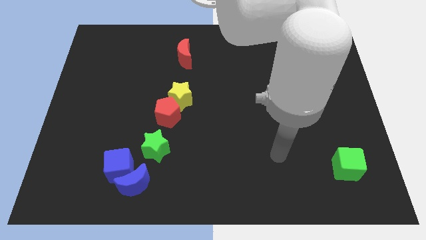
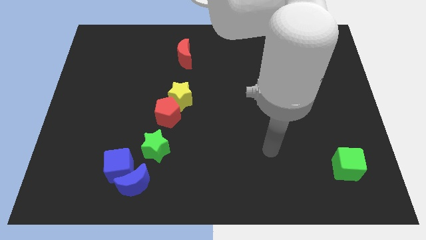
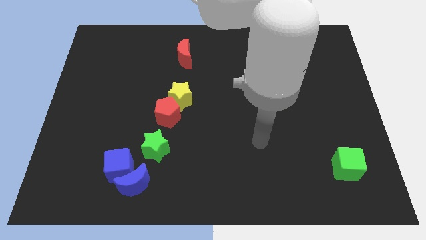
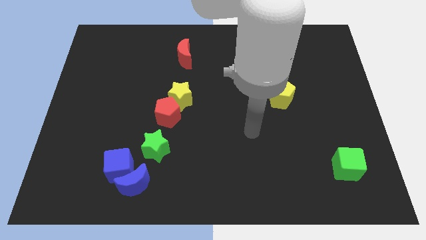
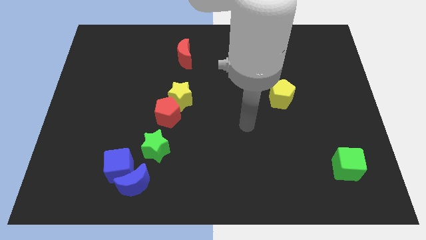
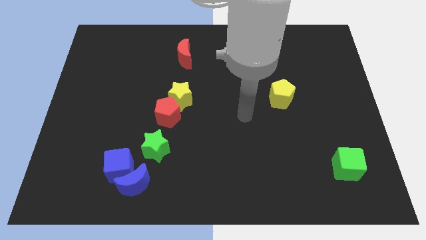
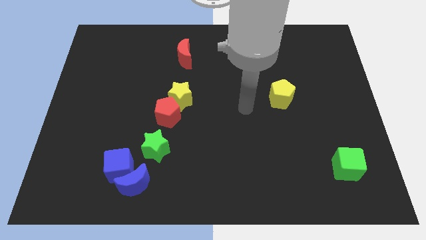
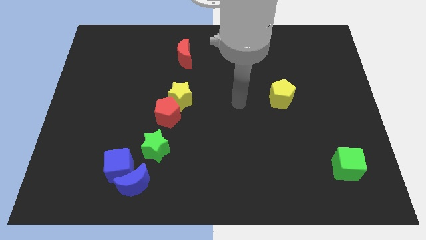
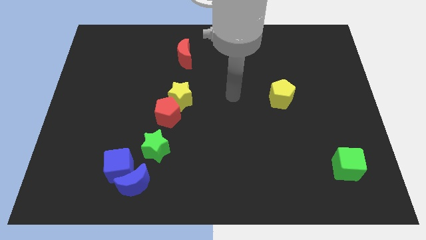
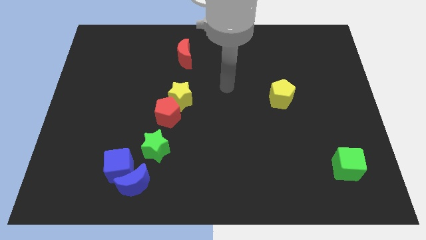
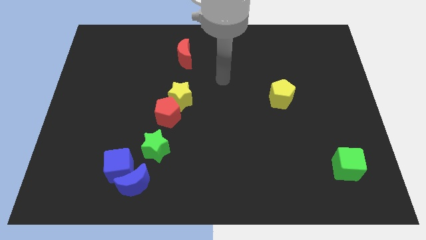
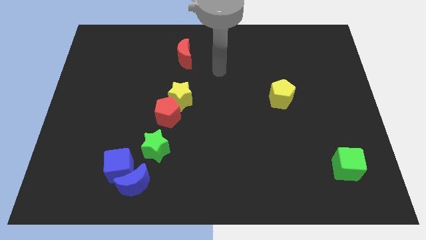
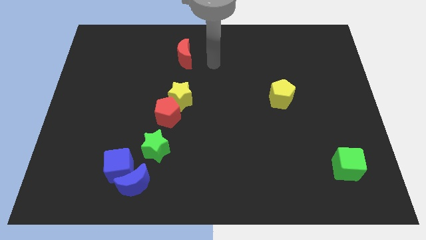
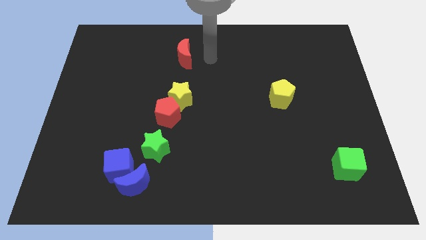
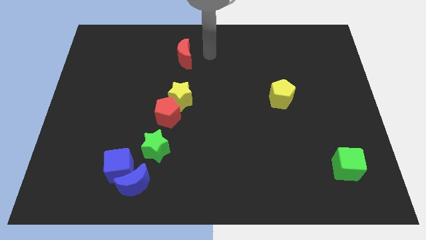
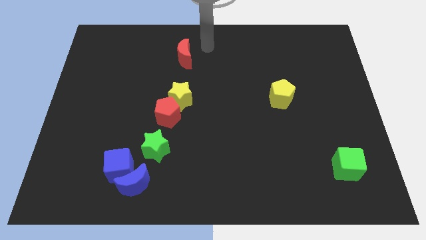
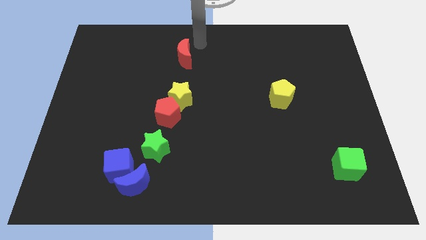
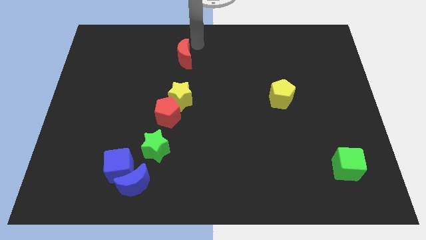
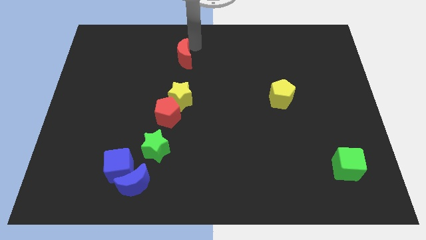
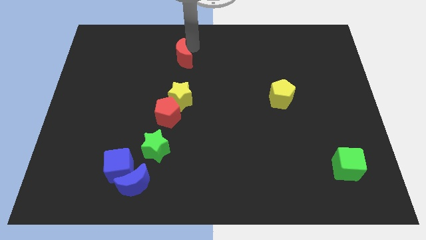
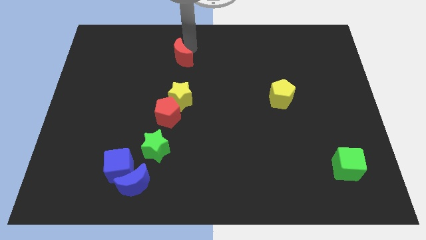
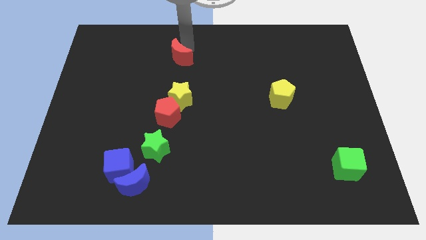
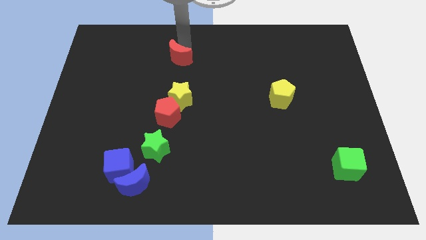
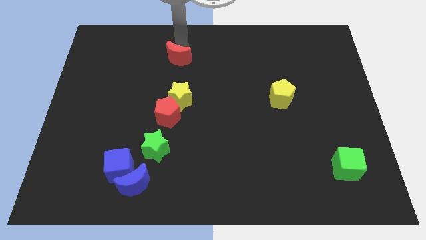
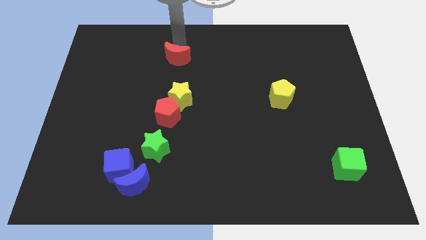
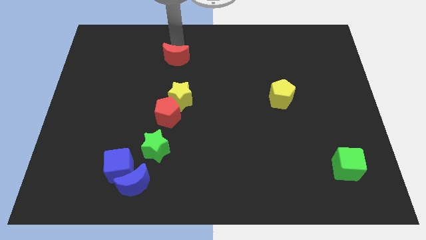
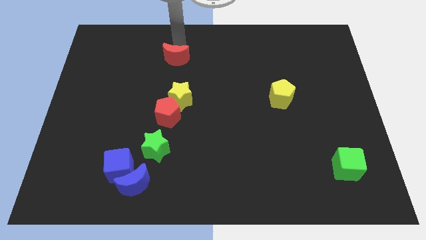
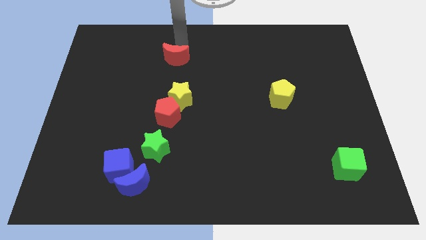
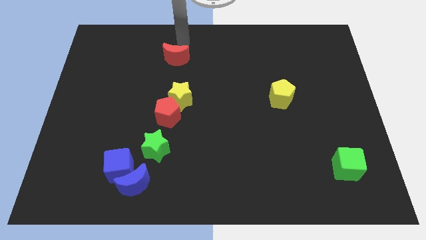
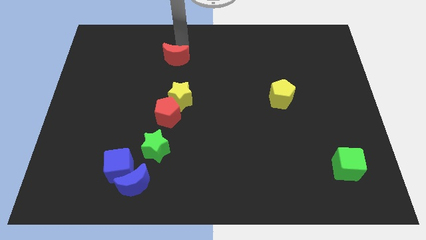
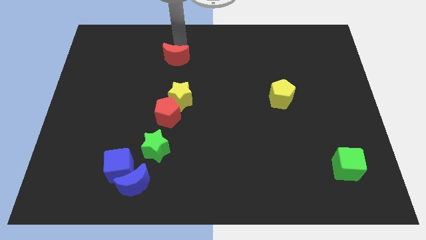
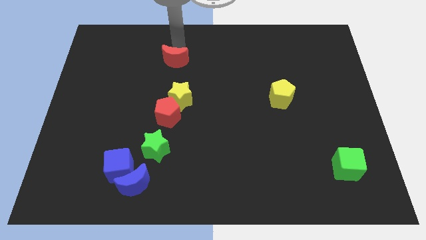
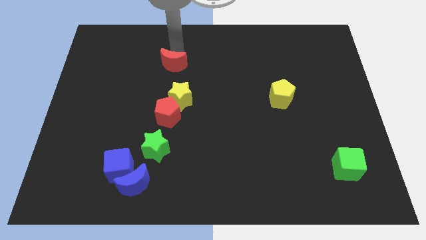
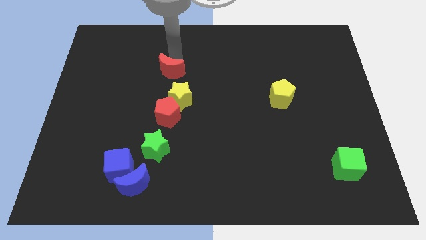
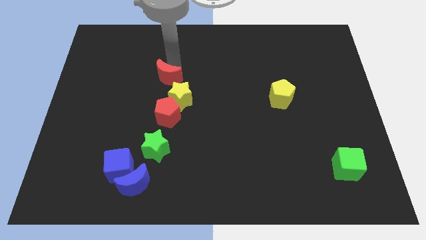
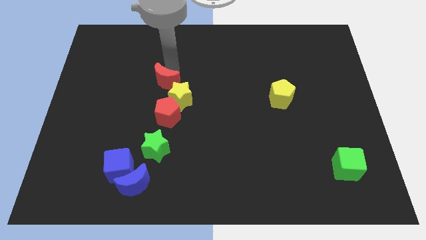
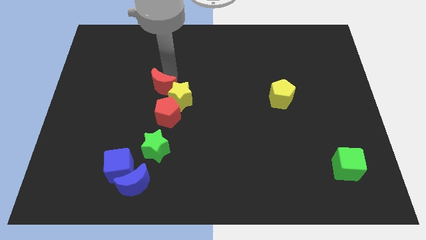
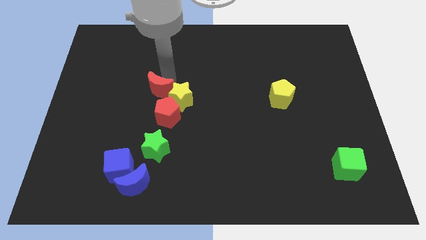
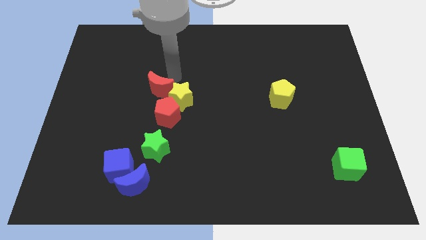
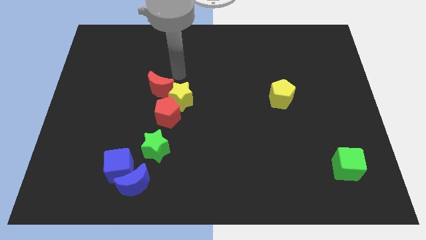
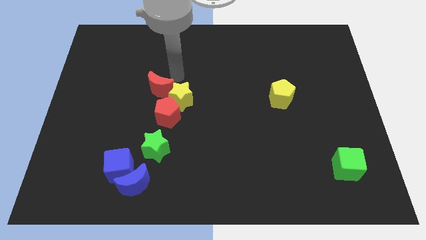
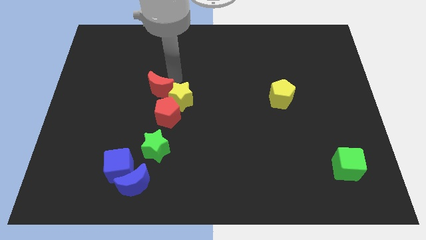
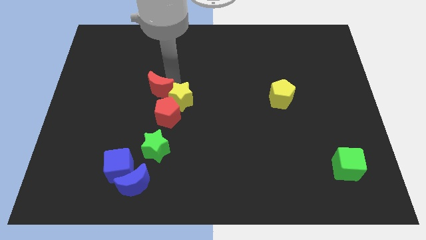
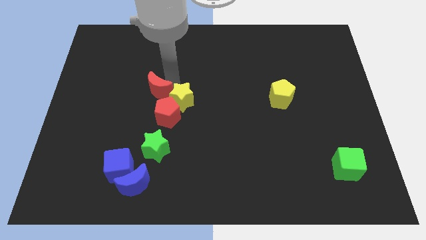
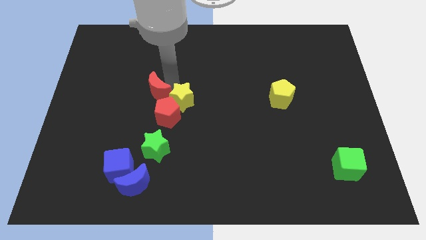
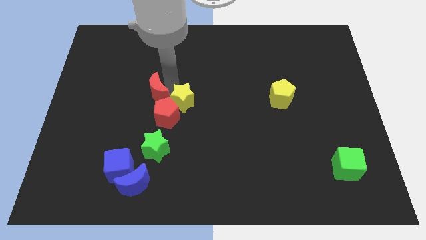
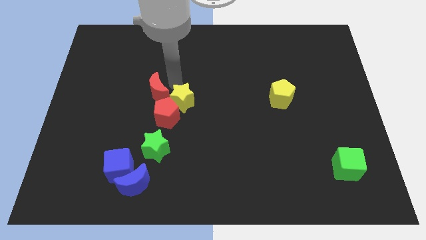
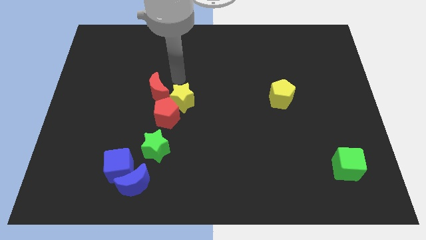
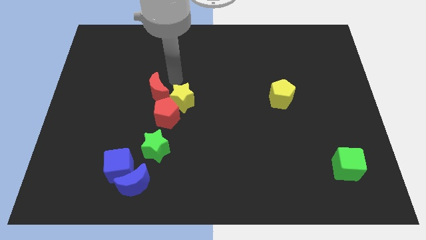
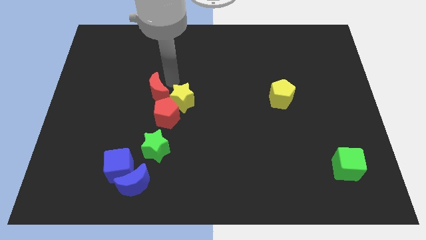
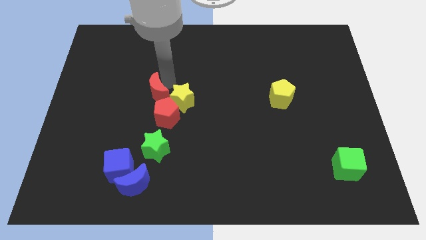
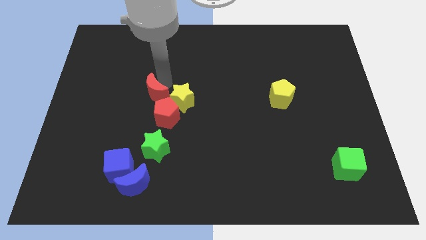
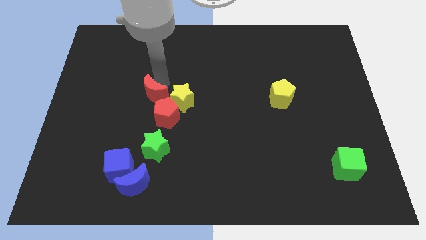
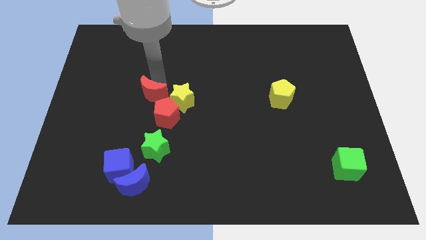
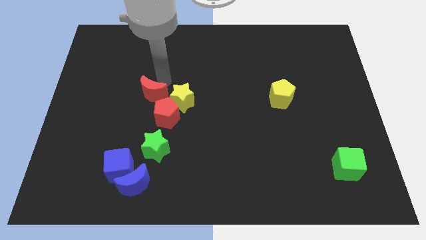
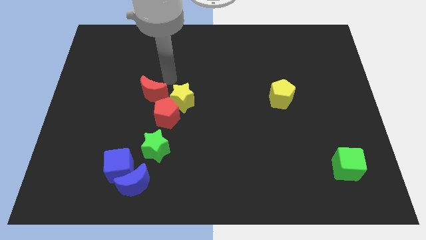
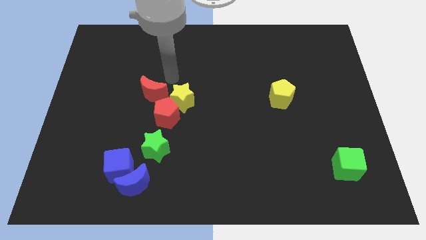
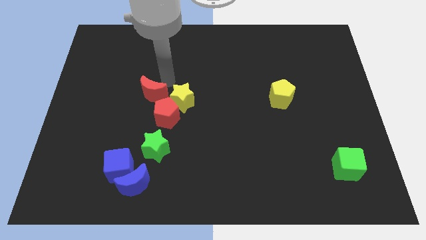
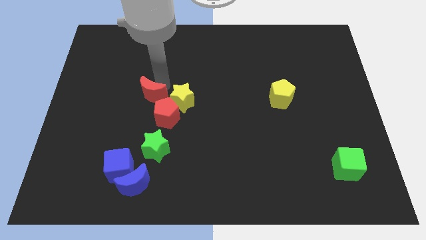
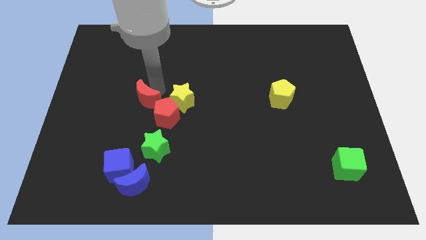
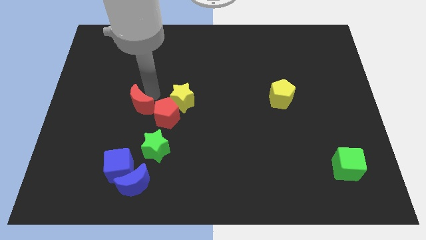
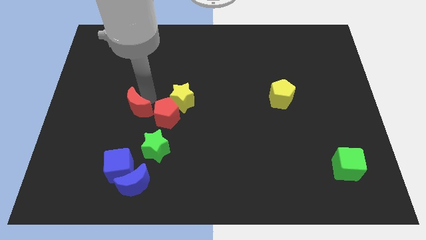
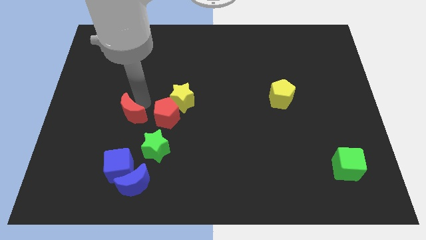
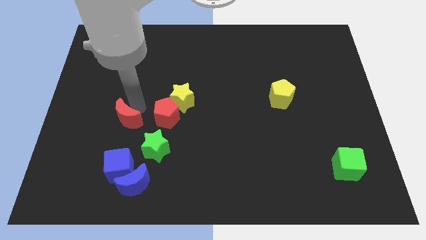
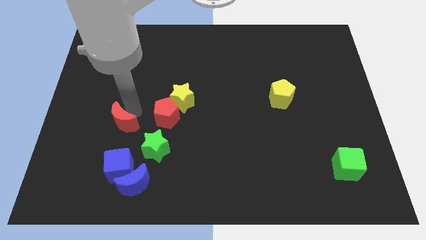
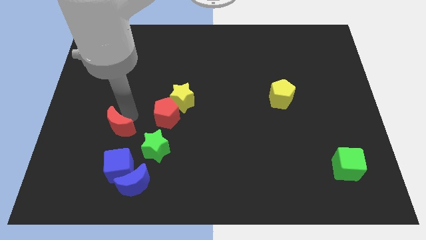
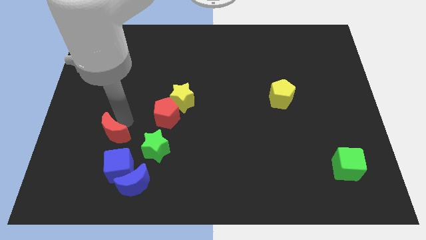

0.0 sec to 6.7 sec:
push the red moon to the top left of the blue cube

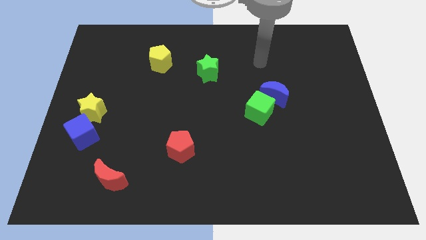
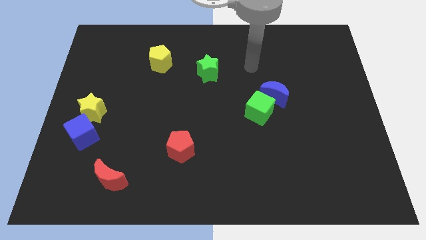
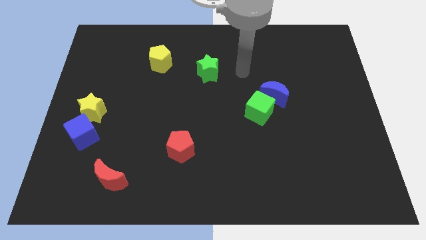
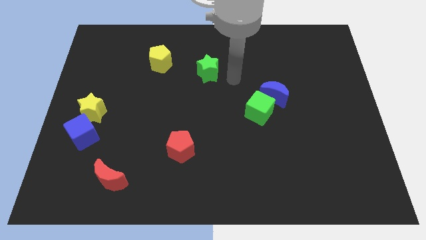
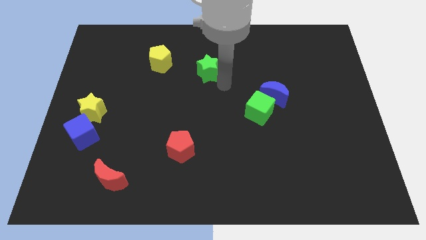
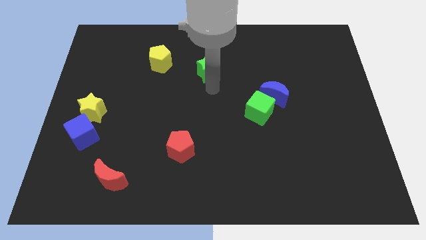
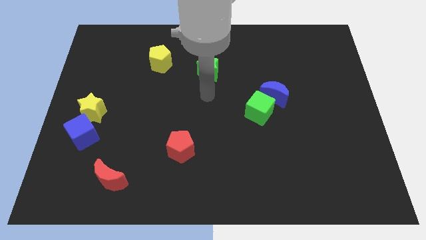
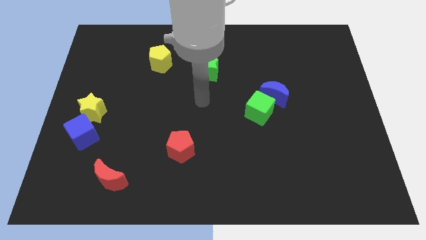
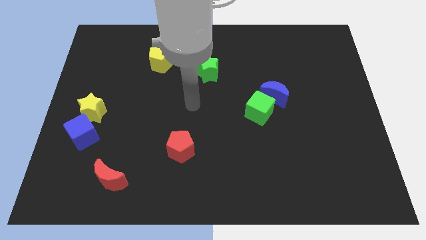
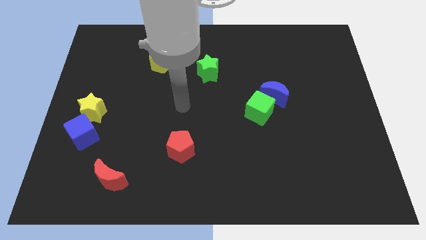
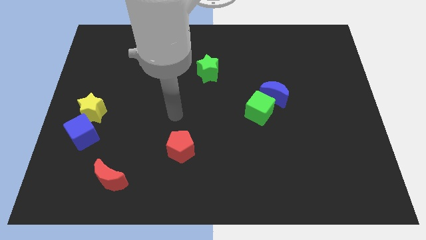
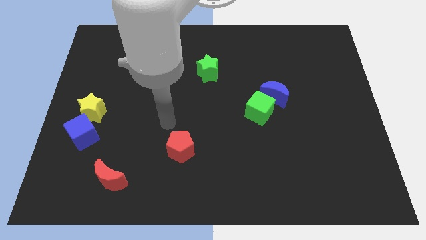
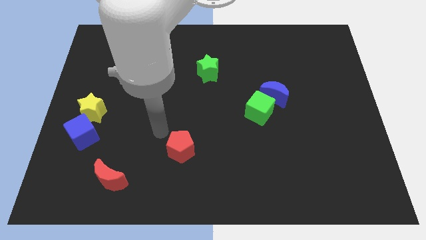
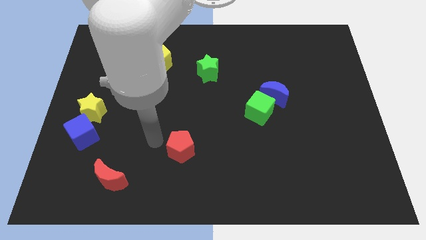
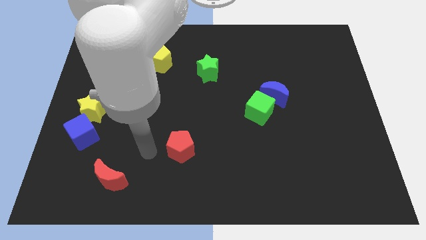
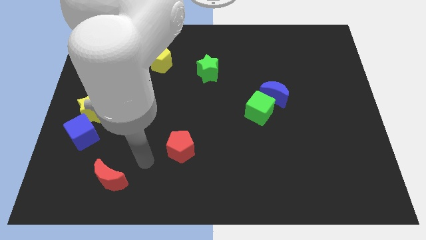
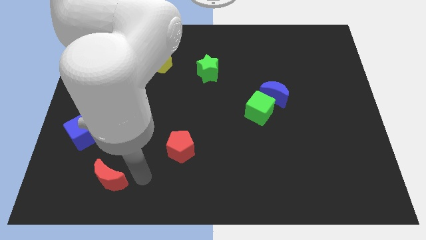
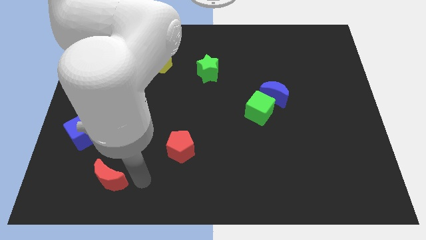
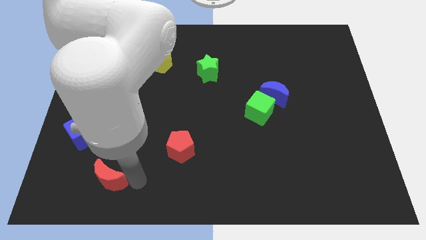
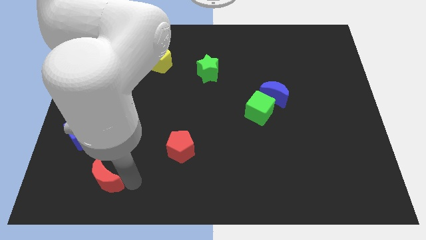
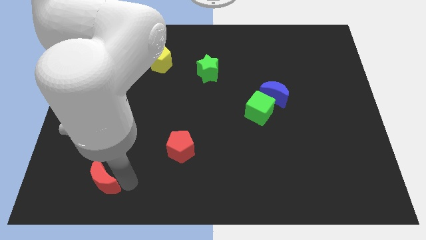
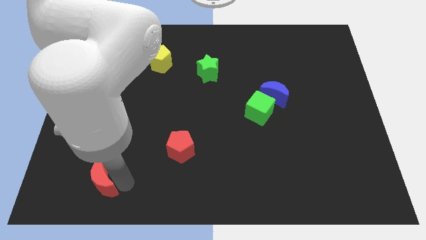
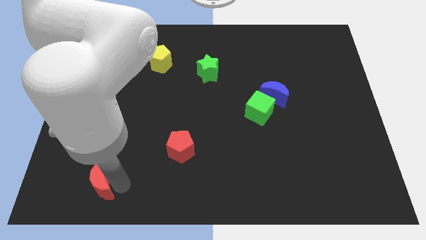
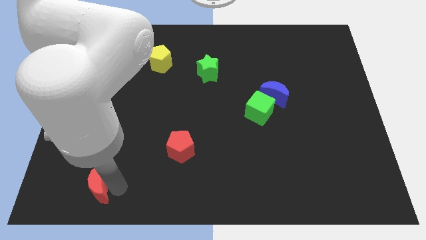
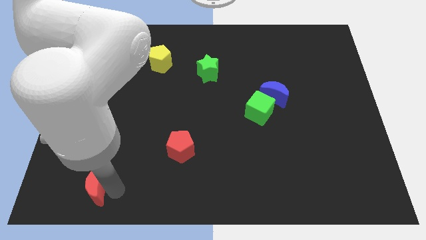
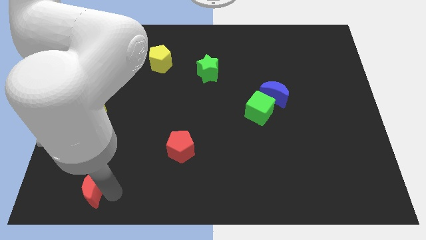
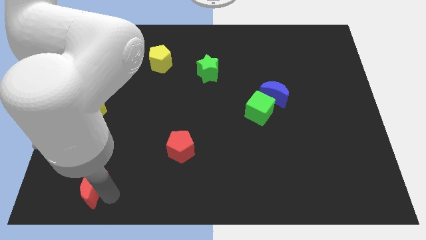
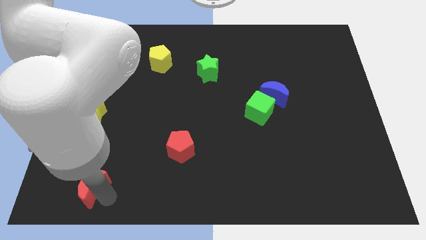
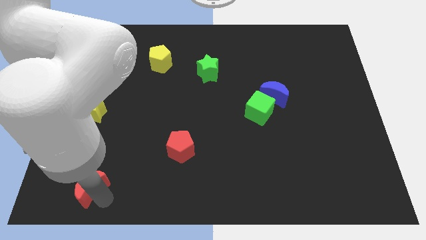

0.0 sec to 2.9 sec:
slide the red moon to the bottom of the blue cube
